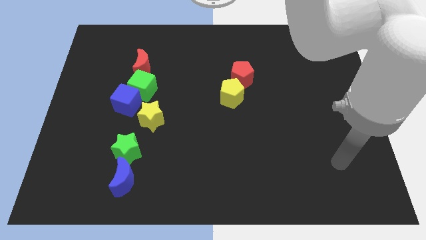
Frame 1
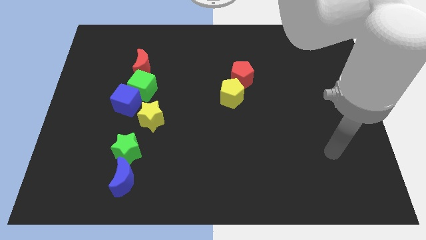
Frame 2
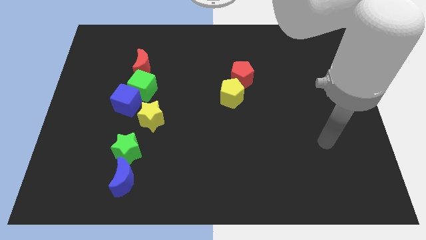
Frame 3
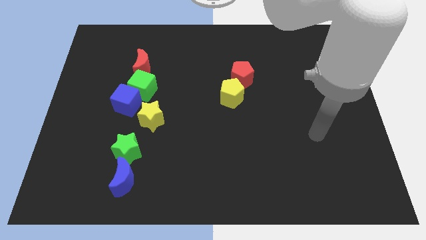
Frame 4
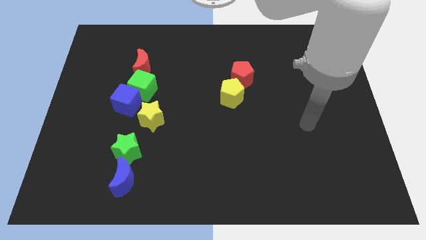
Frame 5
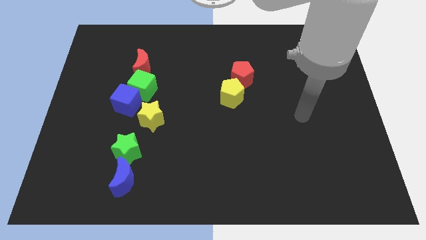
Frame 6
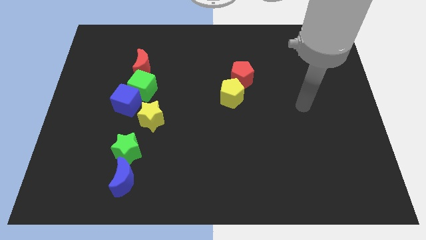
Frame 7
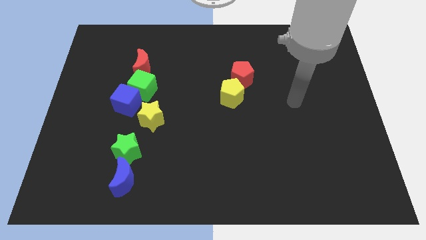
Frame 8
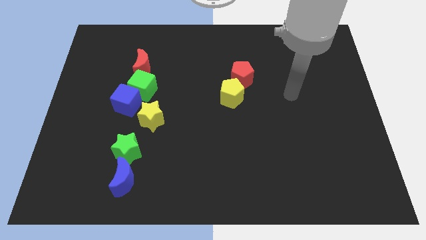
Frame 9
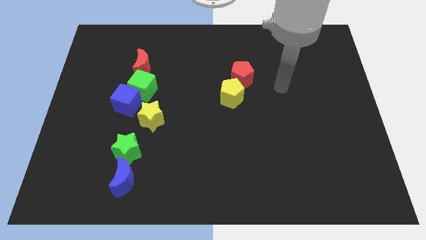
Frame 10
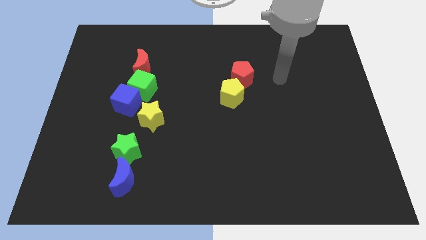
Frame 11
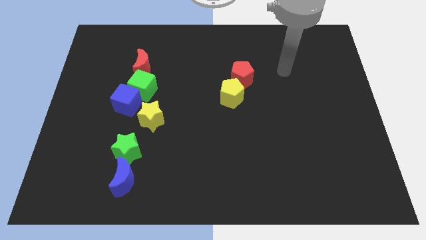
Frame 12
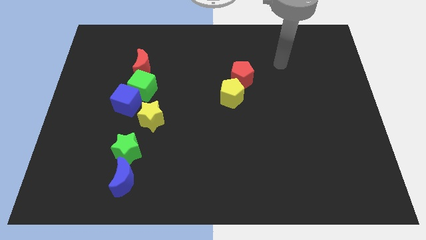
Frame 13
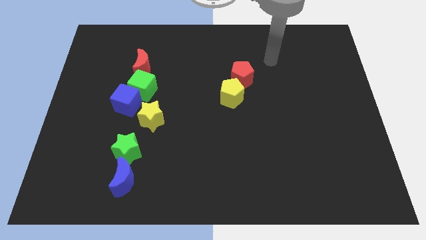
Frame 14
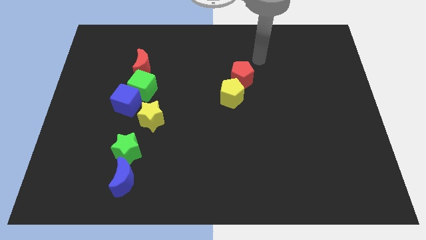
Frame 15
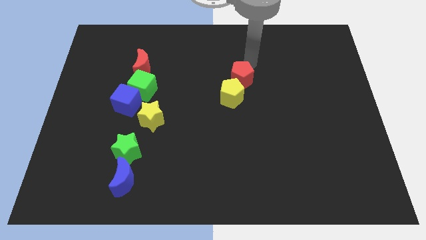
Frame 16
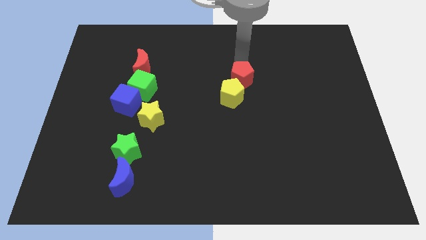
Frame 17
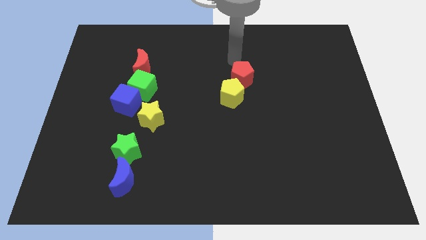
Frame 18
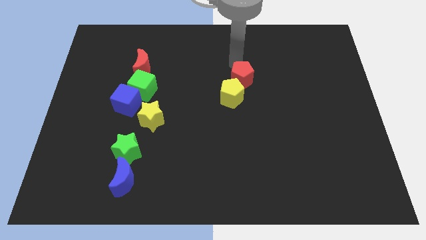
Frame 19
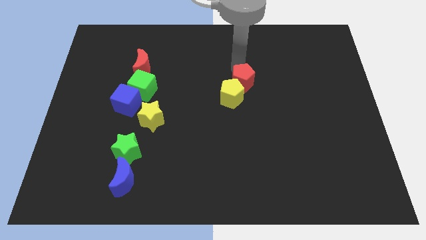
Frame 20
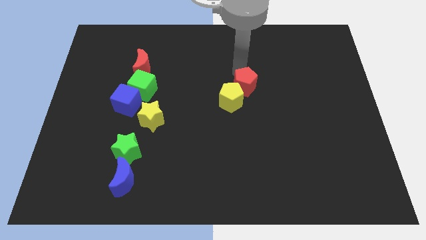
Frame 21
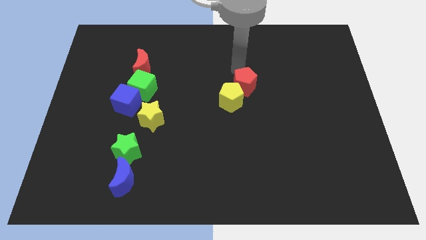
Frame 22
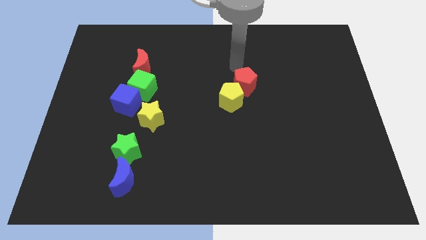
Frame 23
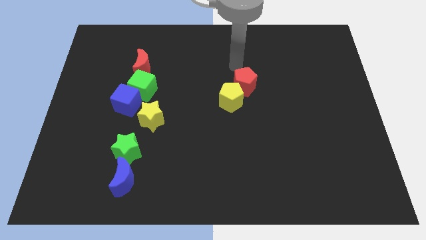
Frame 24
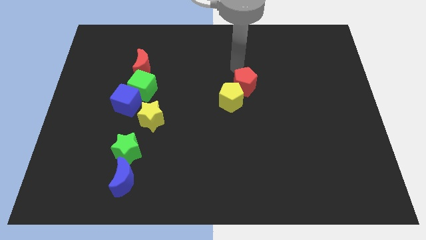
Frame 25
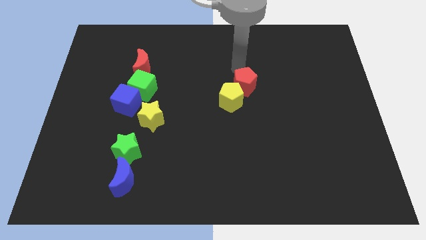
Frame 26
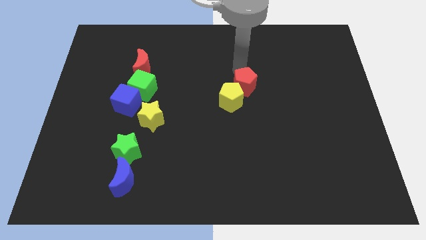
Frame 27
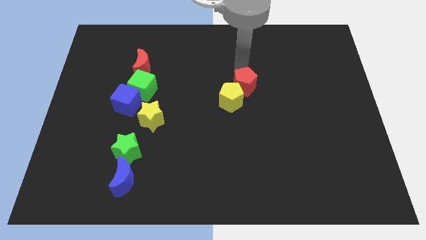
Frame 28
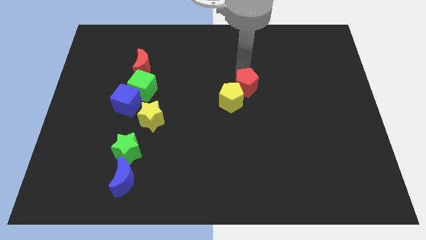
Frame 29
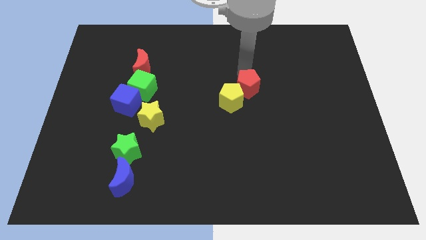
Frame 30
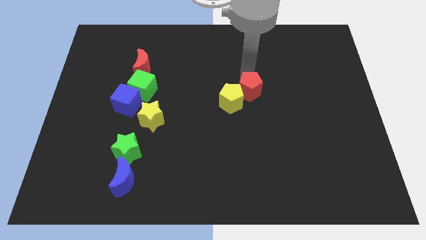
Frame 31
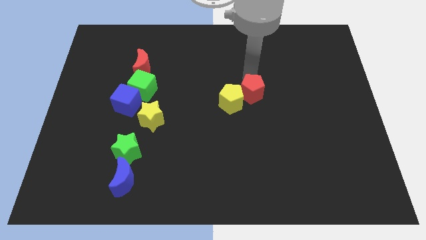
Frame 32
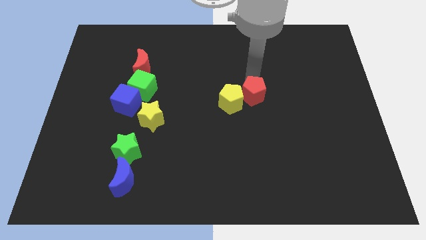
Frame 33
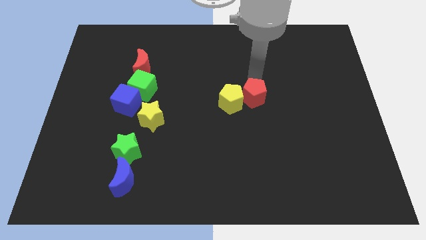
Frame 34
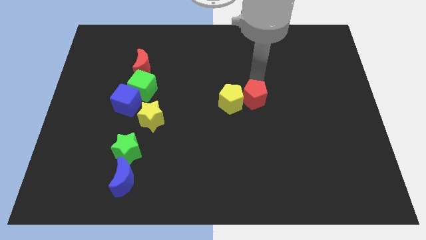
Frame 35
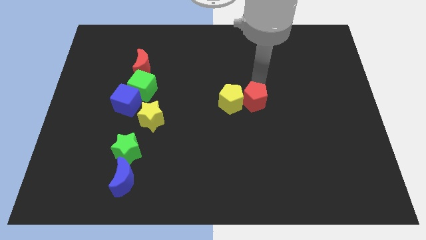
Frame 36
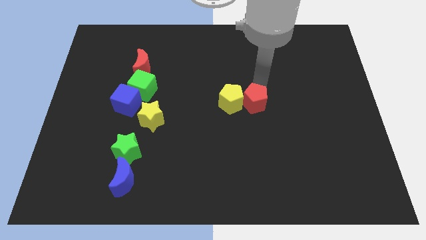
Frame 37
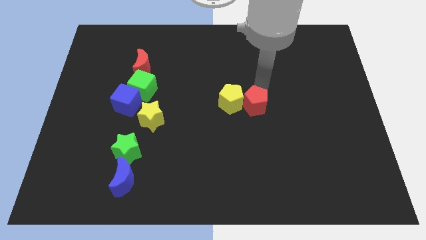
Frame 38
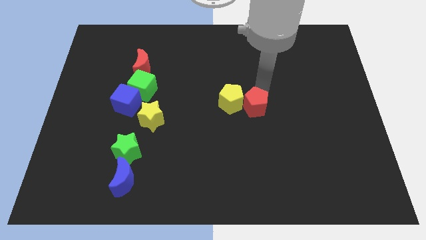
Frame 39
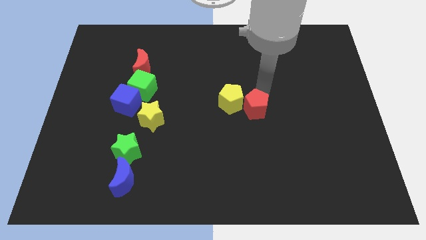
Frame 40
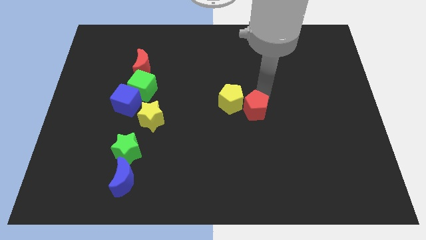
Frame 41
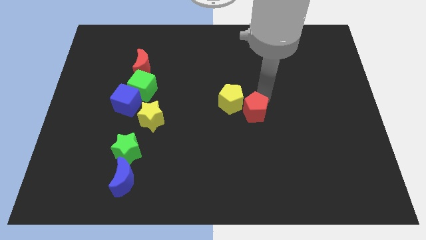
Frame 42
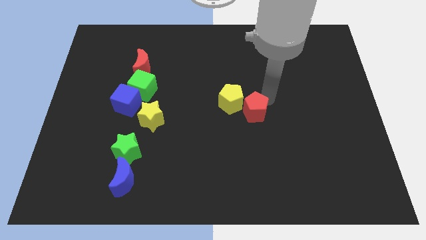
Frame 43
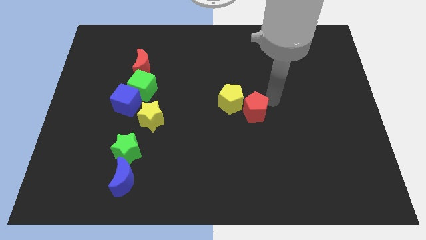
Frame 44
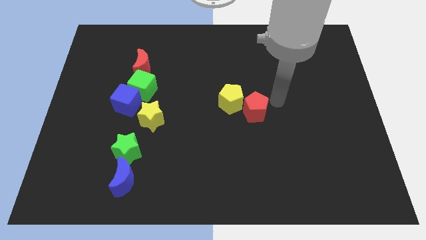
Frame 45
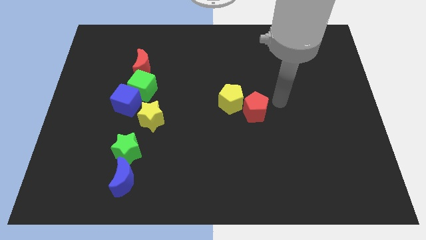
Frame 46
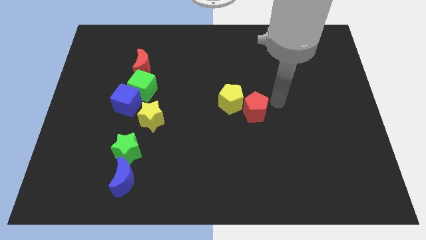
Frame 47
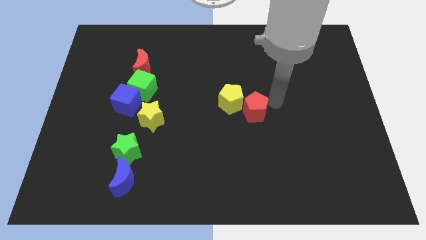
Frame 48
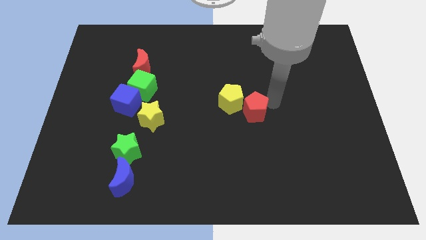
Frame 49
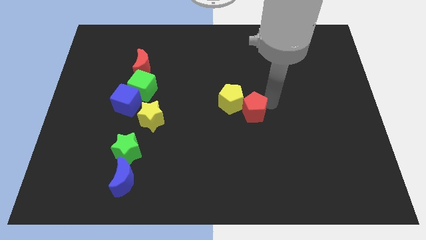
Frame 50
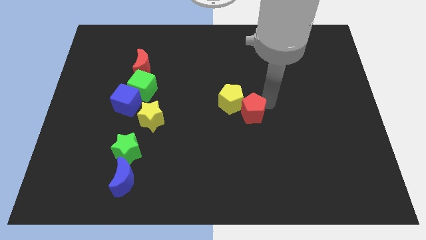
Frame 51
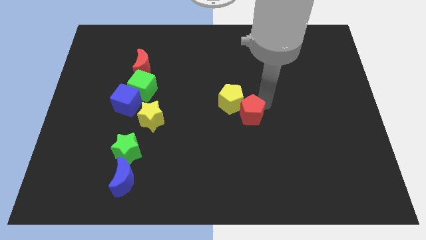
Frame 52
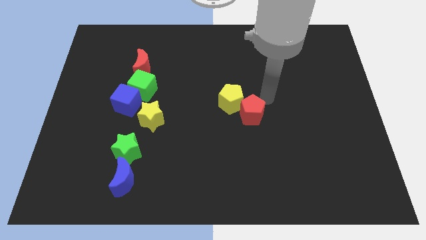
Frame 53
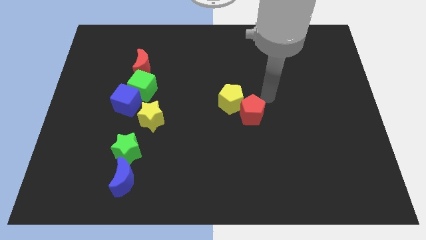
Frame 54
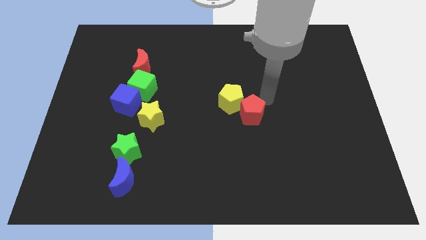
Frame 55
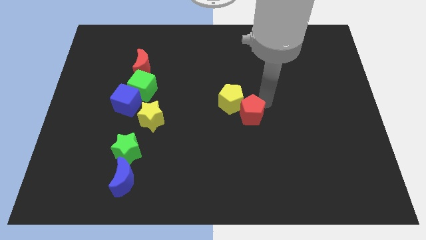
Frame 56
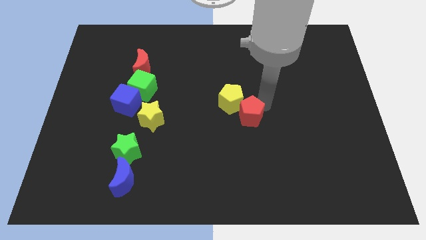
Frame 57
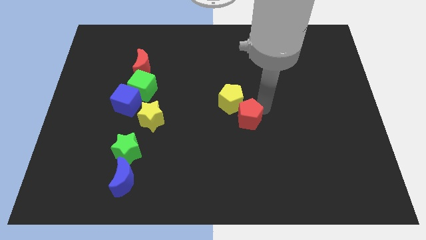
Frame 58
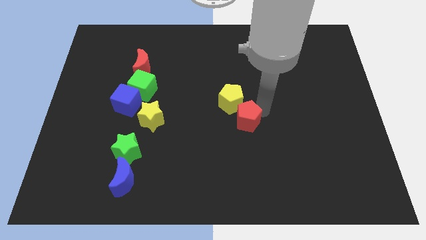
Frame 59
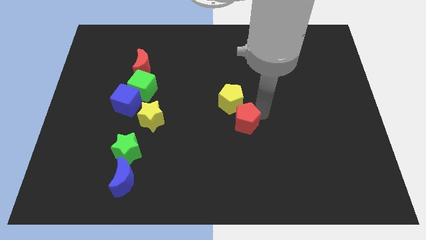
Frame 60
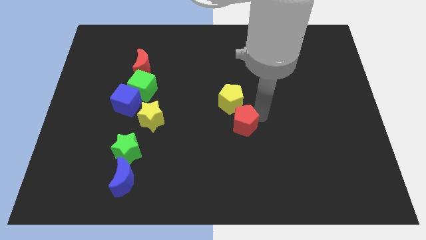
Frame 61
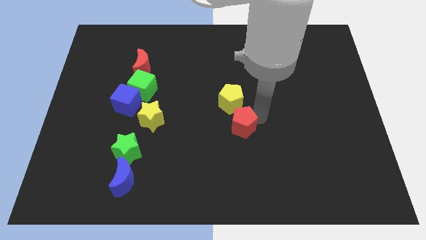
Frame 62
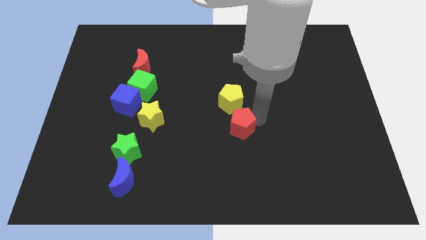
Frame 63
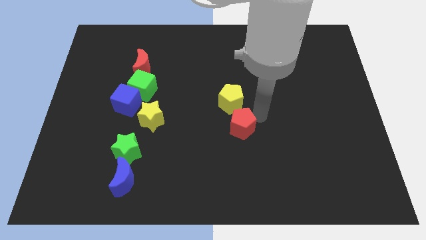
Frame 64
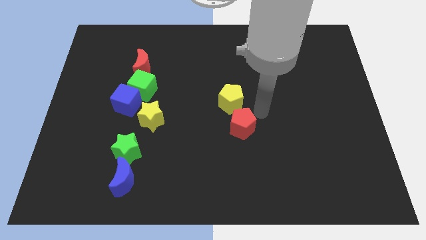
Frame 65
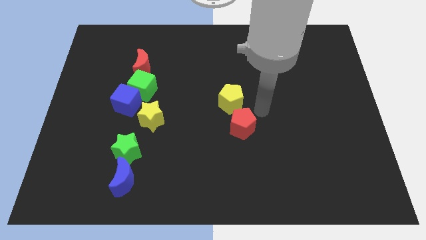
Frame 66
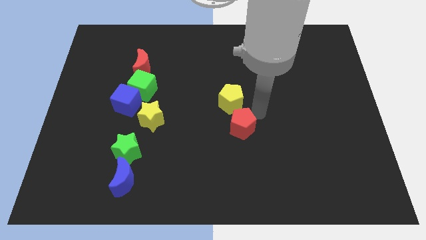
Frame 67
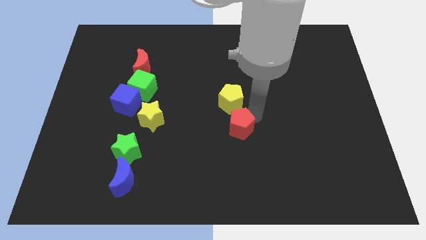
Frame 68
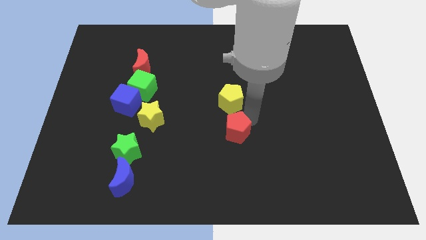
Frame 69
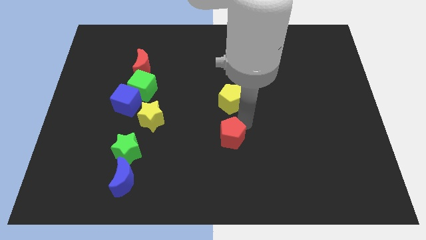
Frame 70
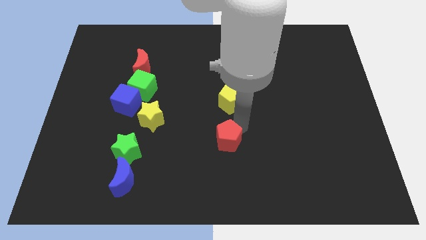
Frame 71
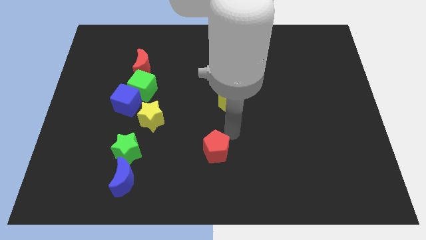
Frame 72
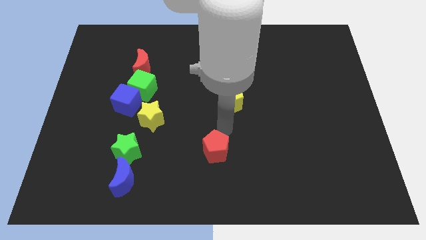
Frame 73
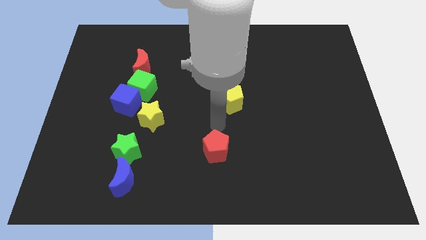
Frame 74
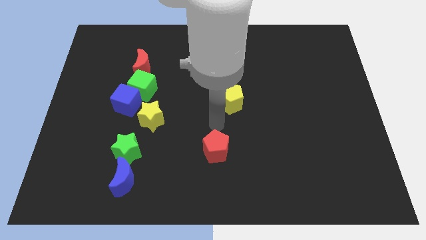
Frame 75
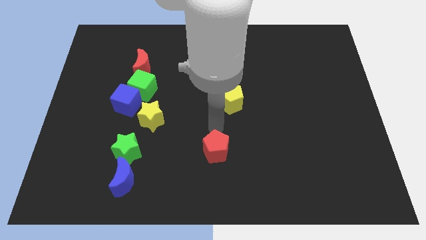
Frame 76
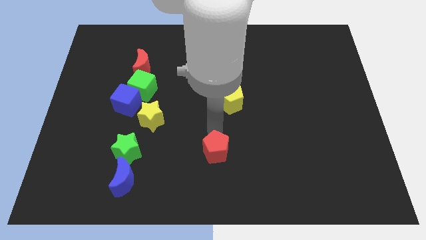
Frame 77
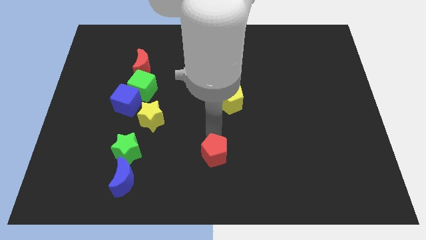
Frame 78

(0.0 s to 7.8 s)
put the red pentagon to the bottom side
